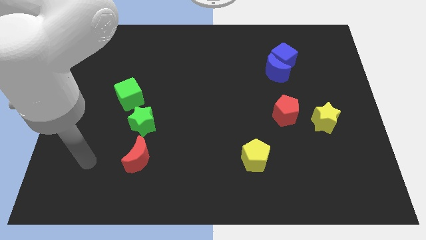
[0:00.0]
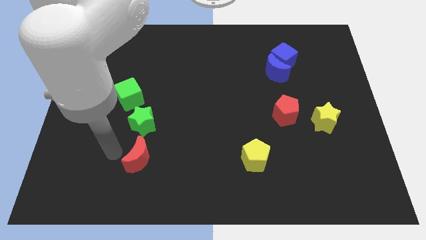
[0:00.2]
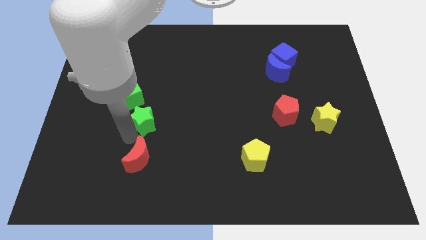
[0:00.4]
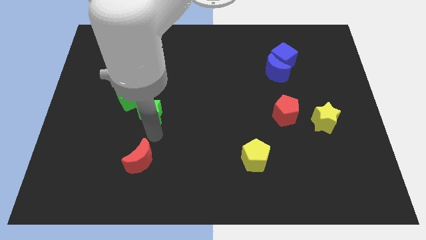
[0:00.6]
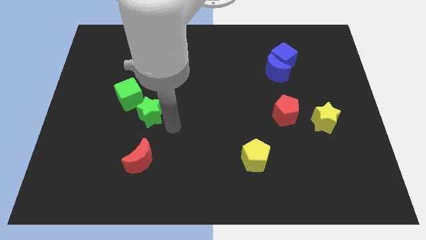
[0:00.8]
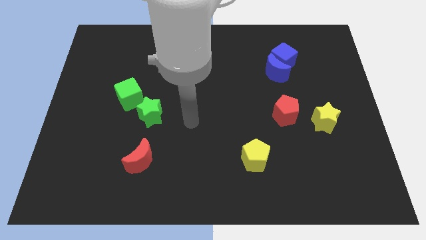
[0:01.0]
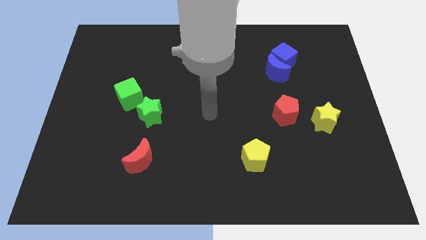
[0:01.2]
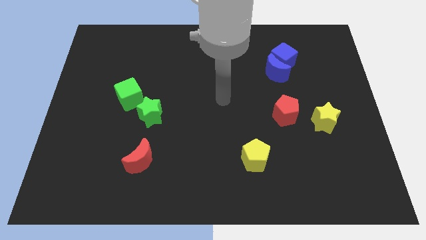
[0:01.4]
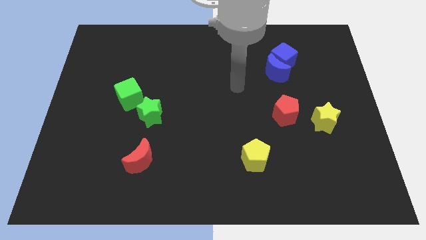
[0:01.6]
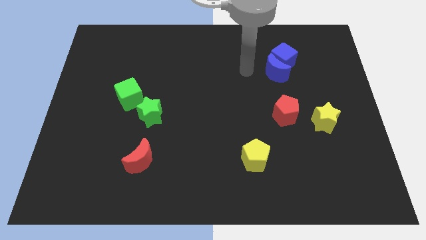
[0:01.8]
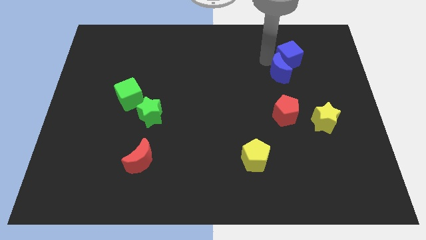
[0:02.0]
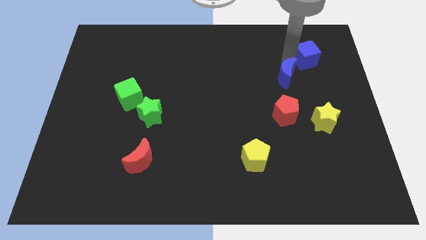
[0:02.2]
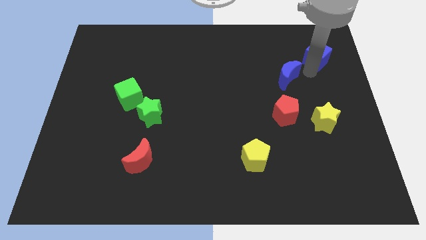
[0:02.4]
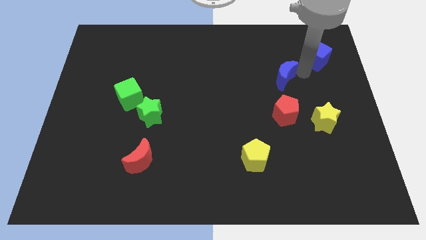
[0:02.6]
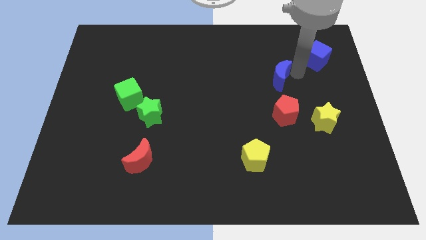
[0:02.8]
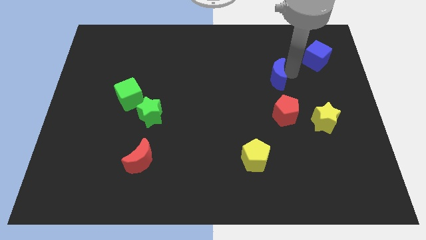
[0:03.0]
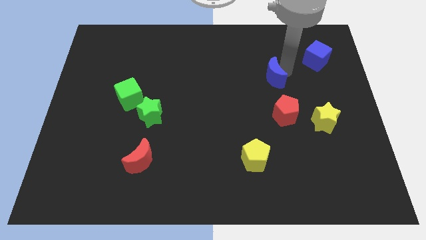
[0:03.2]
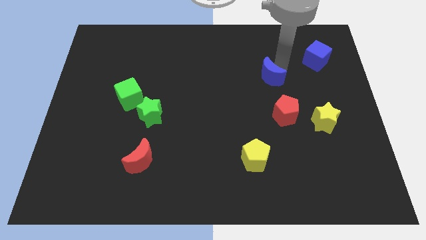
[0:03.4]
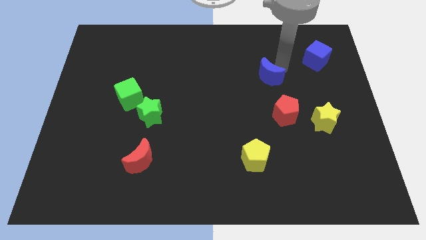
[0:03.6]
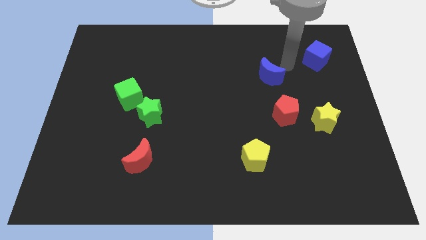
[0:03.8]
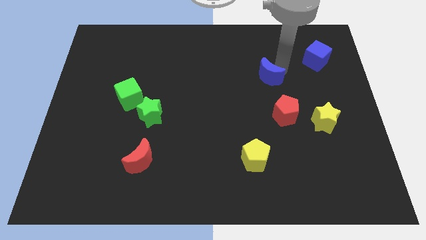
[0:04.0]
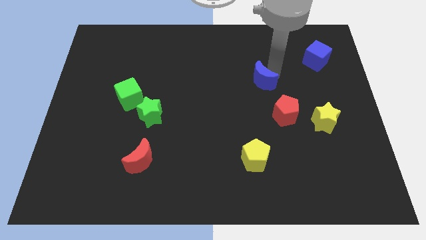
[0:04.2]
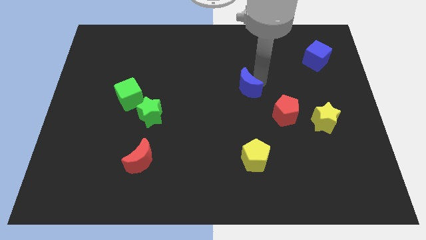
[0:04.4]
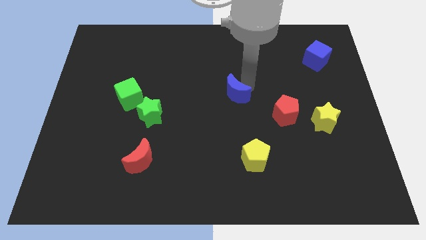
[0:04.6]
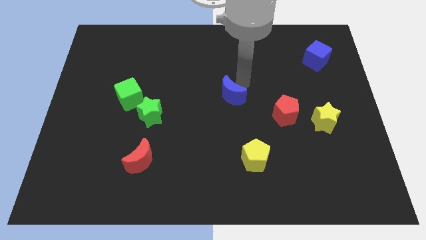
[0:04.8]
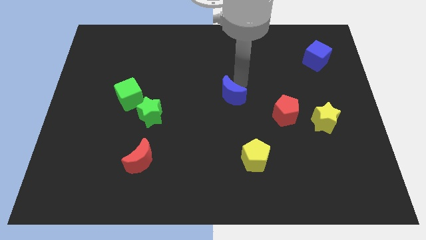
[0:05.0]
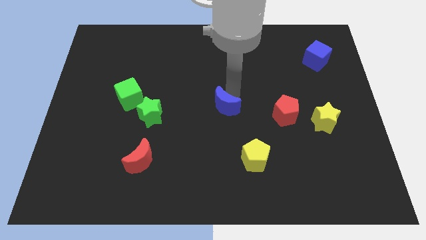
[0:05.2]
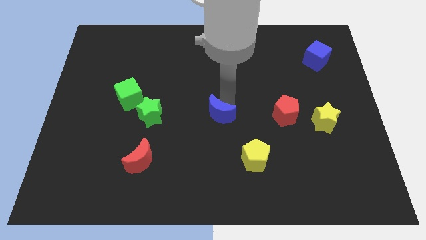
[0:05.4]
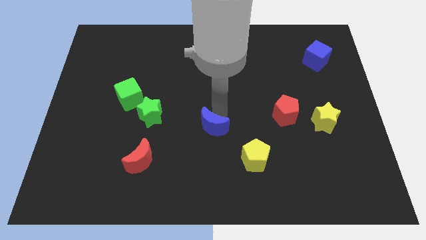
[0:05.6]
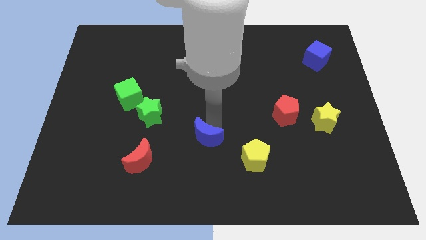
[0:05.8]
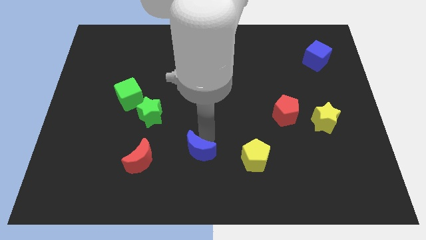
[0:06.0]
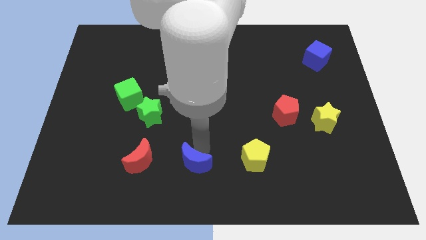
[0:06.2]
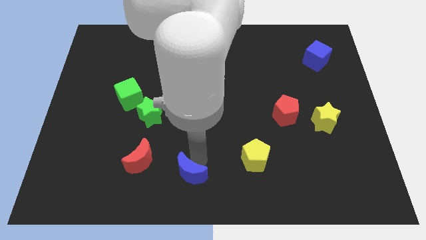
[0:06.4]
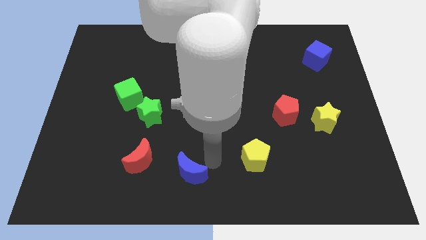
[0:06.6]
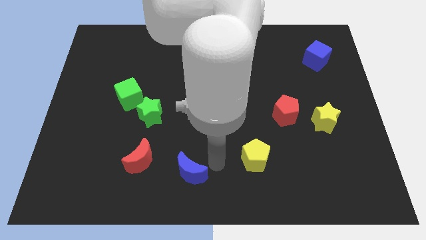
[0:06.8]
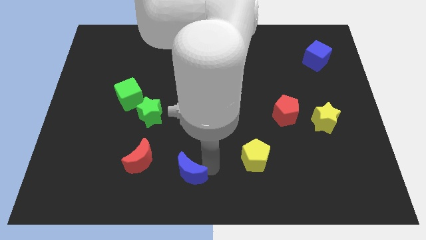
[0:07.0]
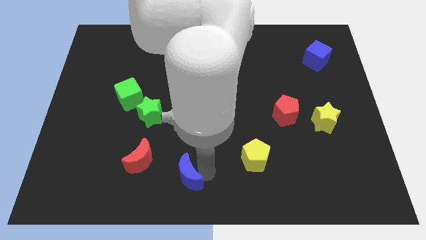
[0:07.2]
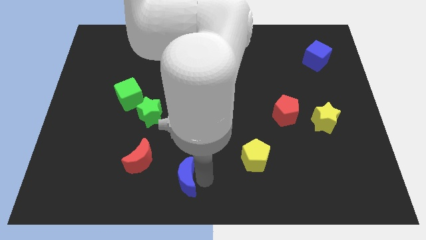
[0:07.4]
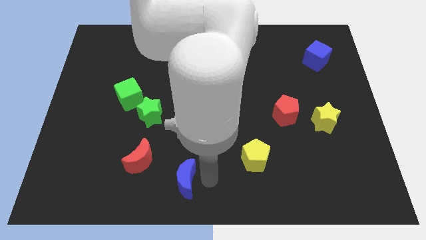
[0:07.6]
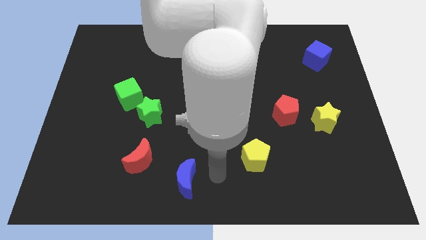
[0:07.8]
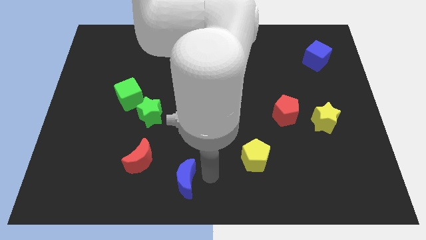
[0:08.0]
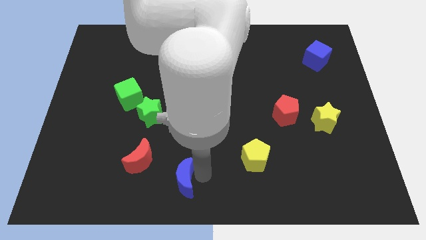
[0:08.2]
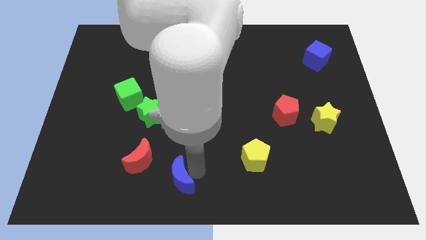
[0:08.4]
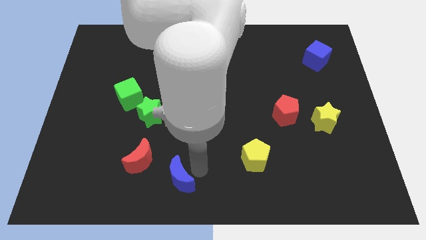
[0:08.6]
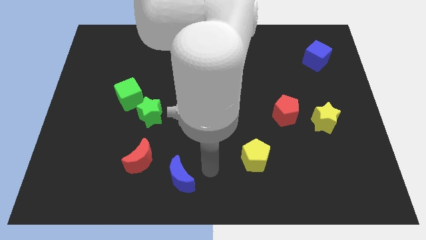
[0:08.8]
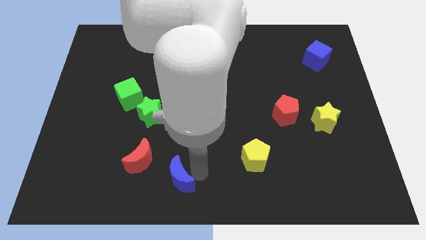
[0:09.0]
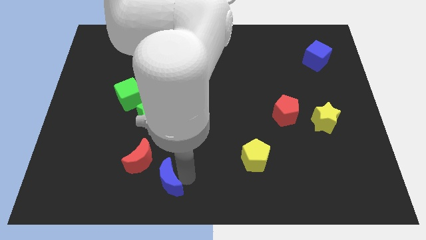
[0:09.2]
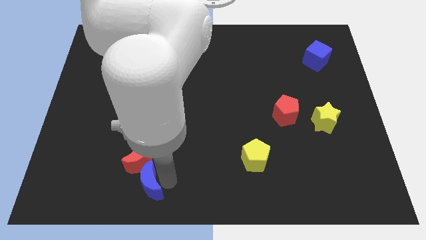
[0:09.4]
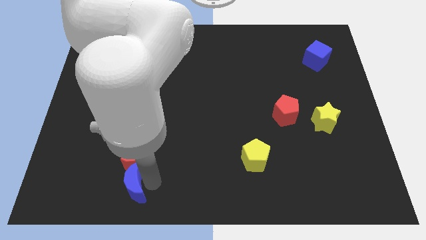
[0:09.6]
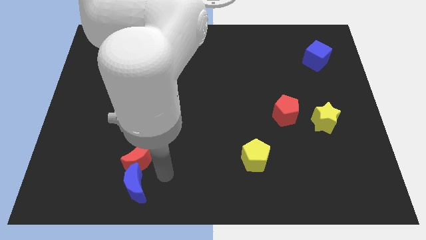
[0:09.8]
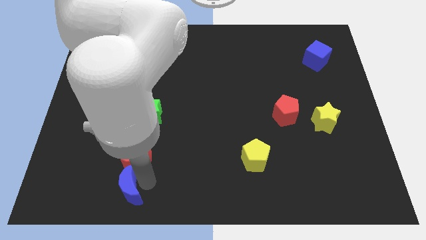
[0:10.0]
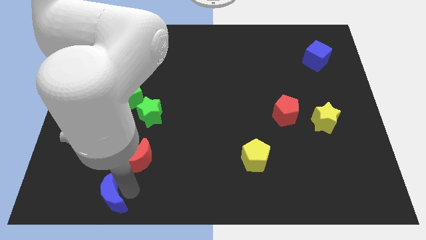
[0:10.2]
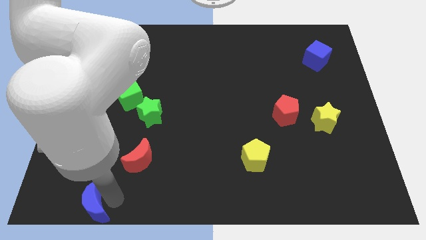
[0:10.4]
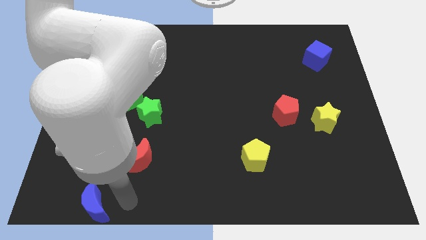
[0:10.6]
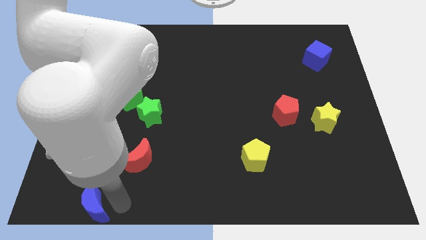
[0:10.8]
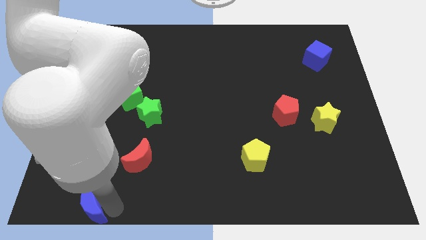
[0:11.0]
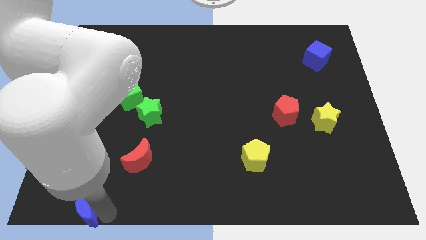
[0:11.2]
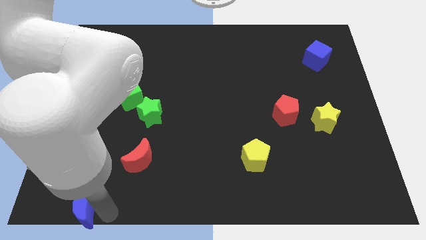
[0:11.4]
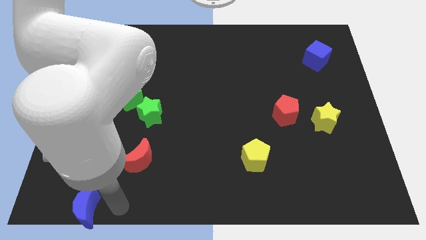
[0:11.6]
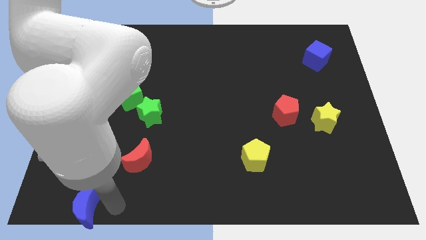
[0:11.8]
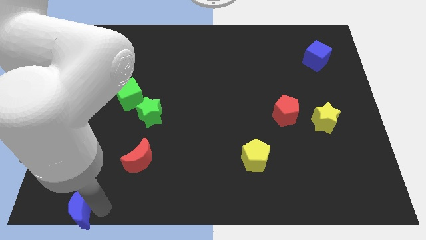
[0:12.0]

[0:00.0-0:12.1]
push the blue moon to the bottom left

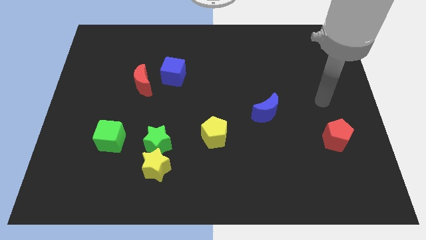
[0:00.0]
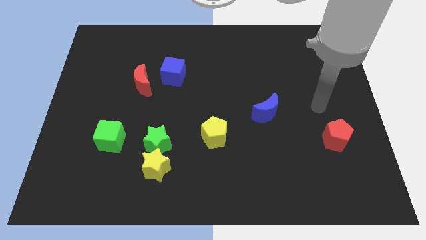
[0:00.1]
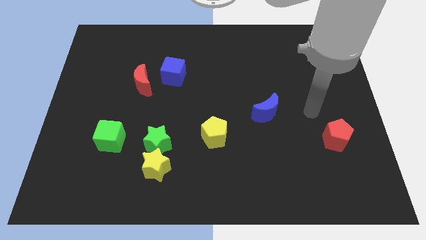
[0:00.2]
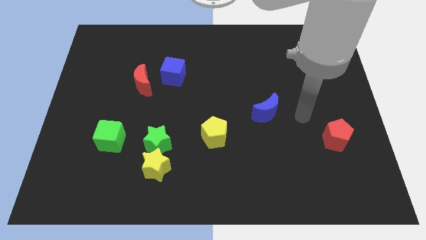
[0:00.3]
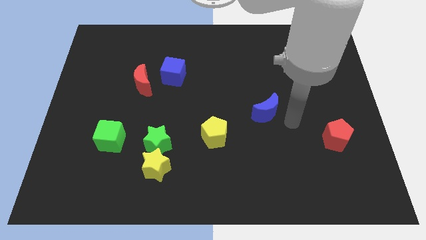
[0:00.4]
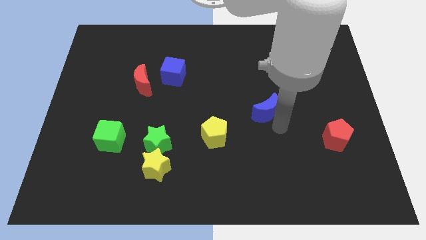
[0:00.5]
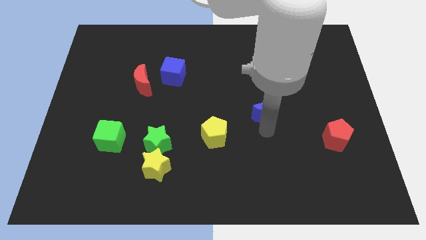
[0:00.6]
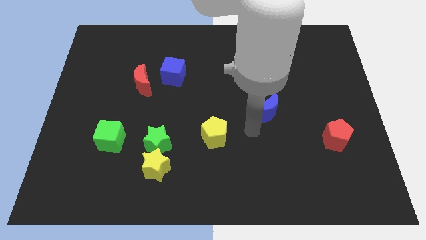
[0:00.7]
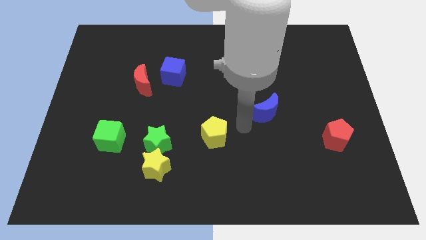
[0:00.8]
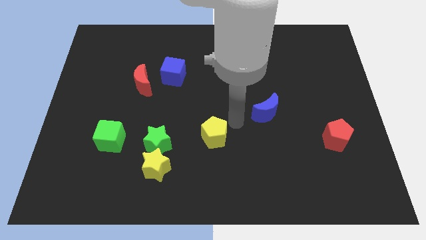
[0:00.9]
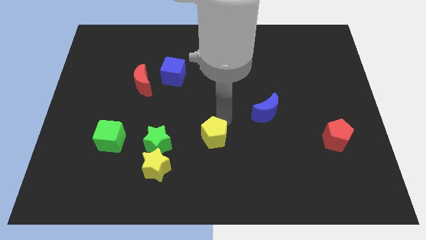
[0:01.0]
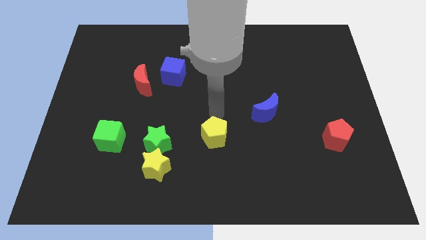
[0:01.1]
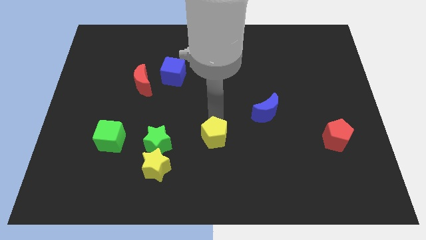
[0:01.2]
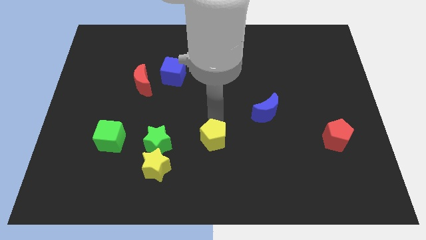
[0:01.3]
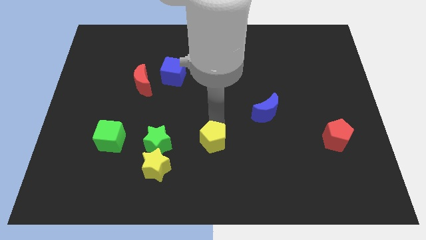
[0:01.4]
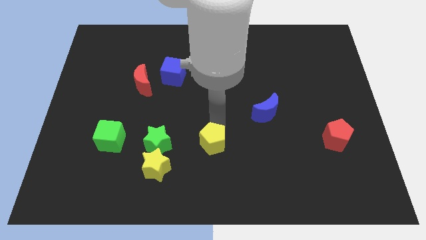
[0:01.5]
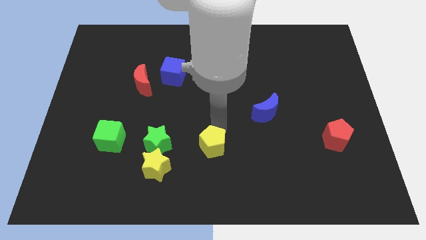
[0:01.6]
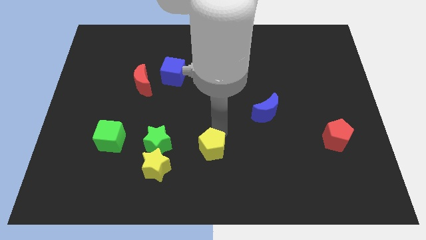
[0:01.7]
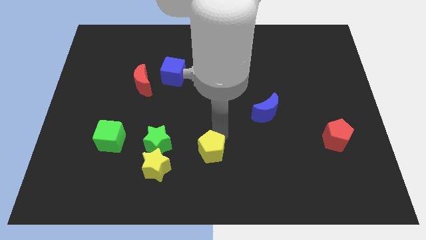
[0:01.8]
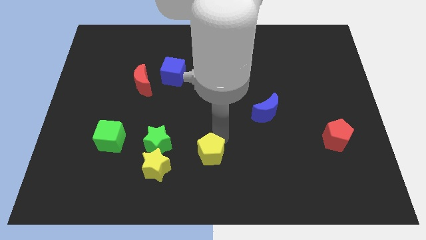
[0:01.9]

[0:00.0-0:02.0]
push the yellow pentagon to the bottom side
